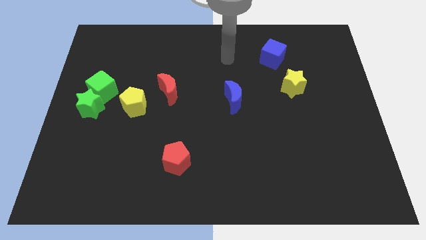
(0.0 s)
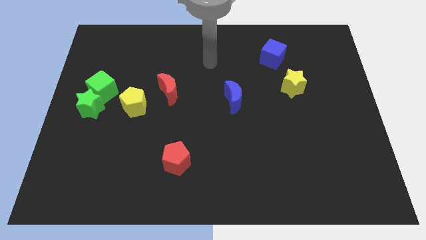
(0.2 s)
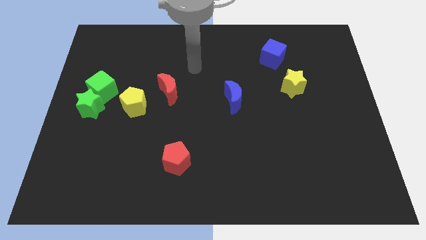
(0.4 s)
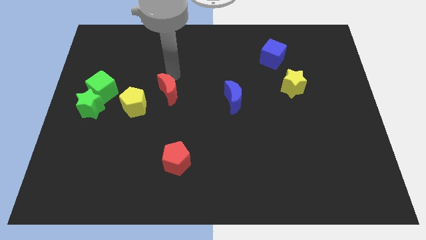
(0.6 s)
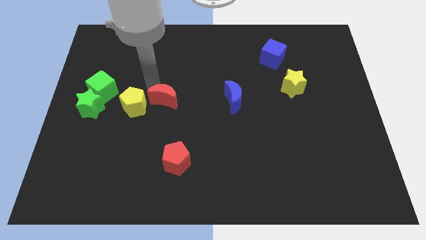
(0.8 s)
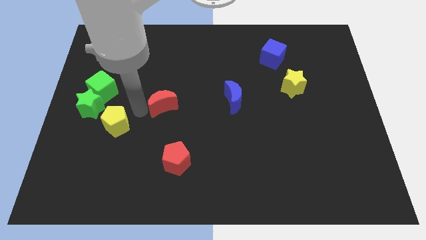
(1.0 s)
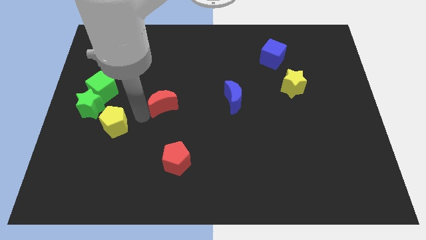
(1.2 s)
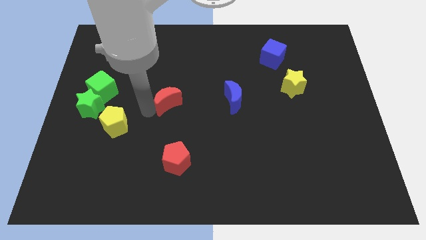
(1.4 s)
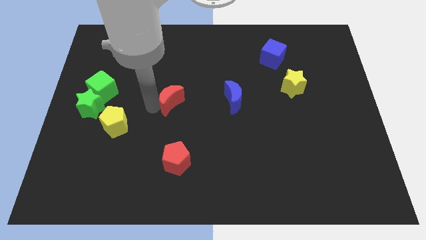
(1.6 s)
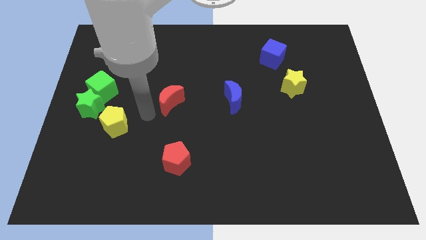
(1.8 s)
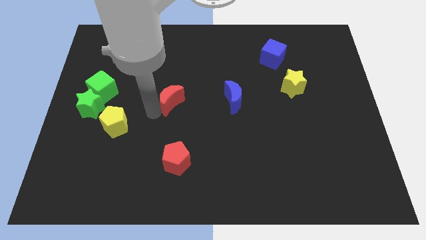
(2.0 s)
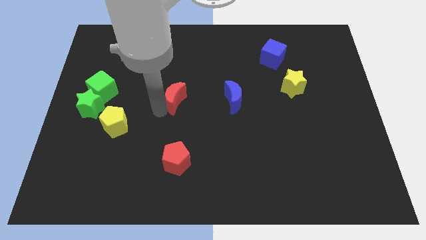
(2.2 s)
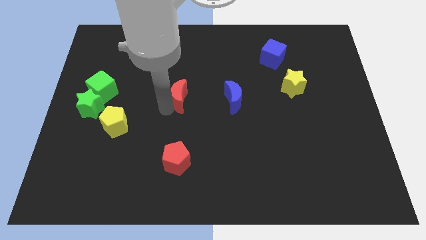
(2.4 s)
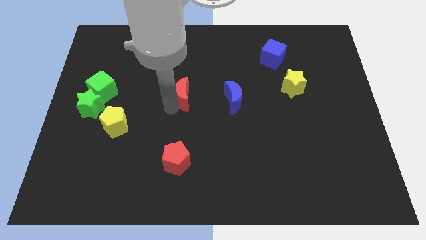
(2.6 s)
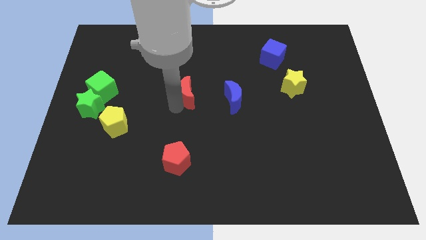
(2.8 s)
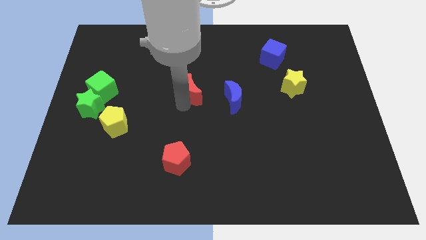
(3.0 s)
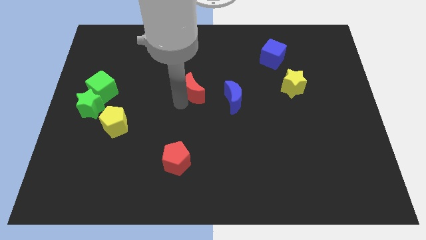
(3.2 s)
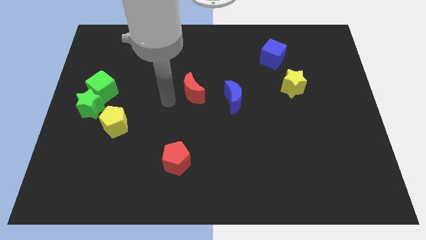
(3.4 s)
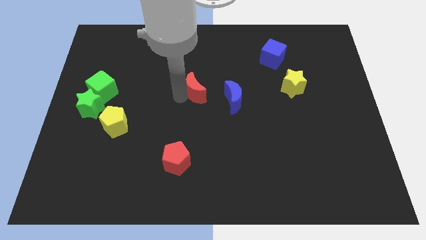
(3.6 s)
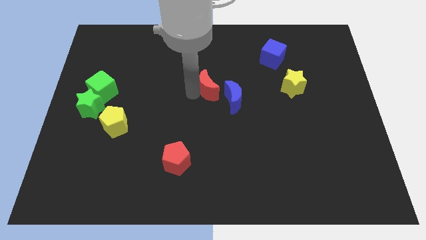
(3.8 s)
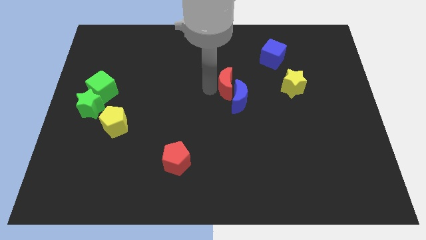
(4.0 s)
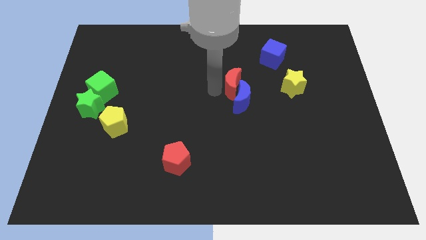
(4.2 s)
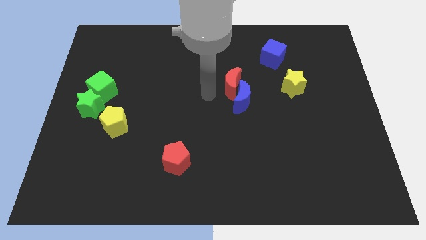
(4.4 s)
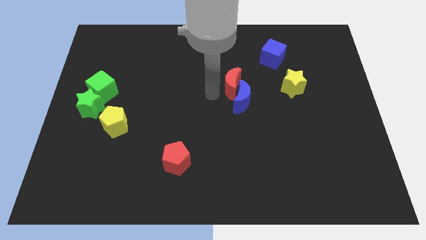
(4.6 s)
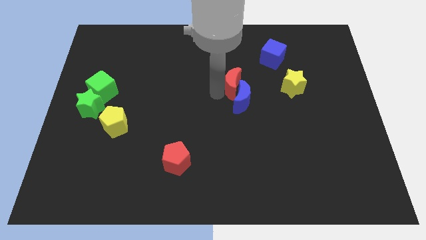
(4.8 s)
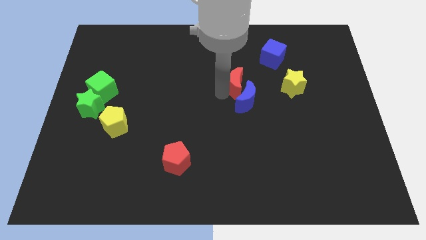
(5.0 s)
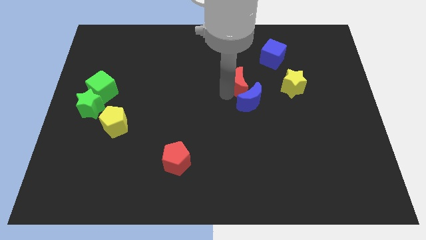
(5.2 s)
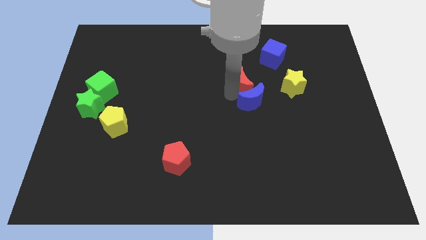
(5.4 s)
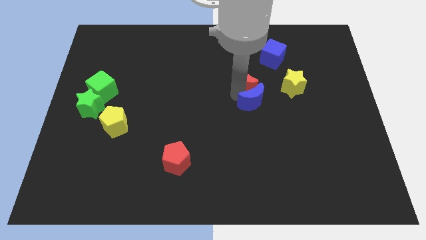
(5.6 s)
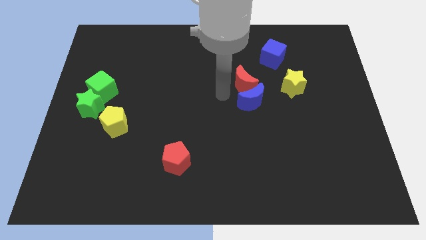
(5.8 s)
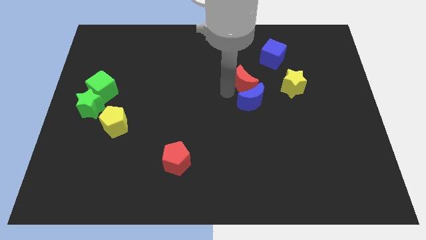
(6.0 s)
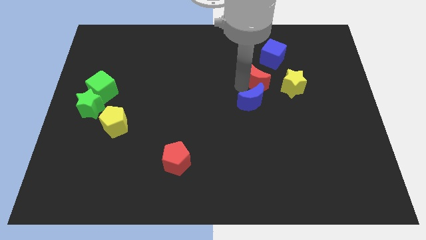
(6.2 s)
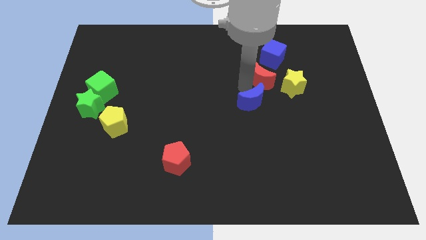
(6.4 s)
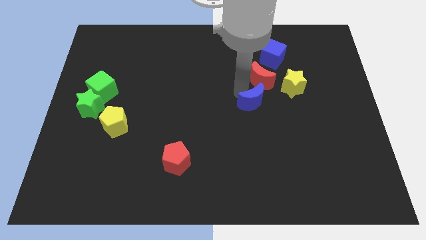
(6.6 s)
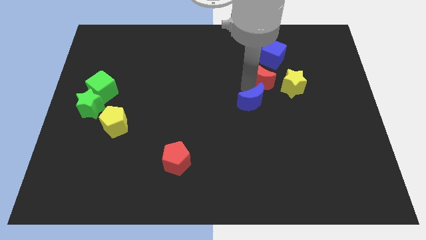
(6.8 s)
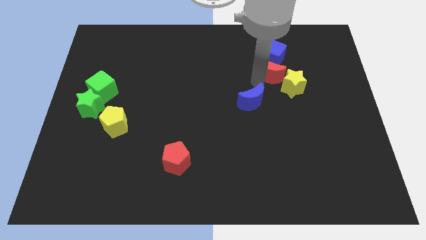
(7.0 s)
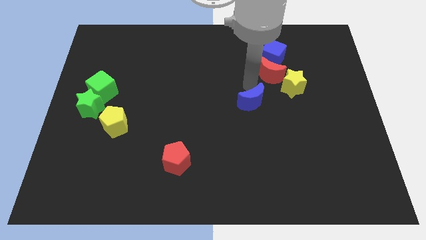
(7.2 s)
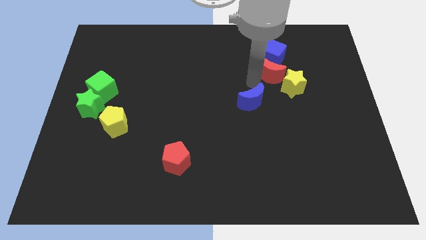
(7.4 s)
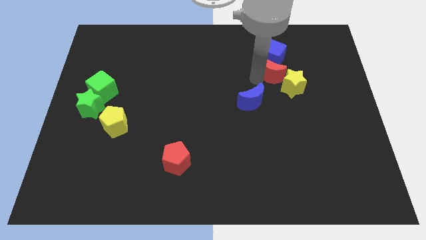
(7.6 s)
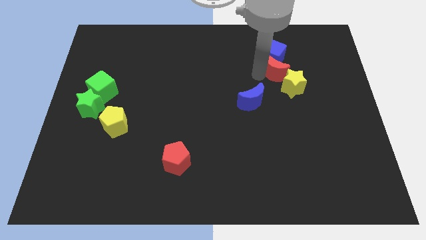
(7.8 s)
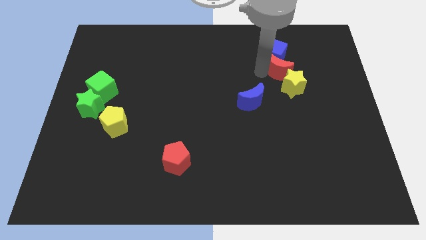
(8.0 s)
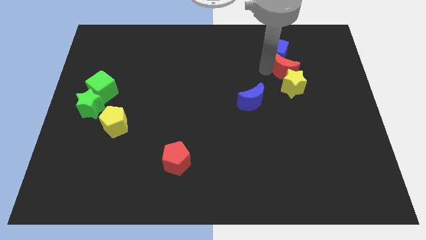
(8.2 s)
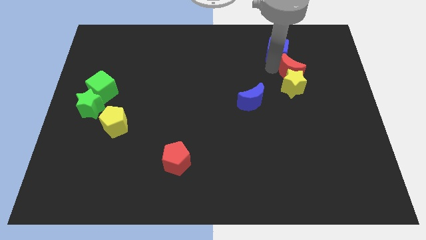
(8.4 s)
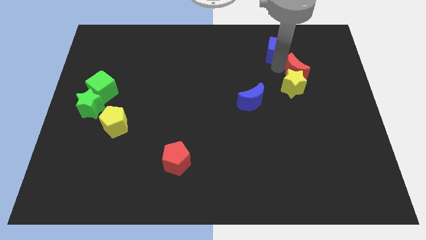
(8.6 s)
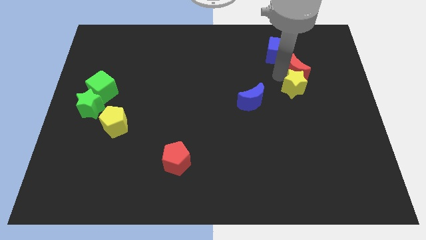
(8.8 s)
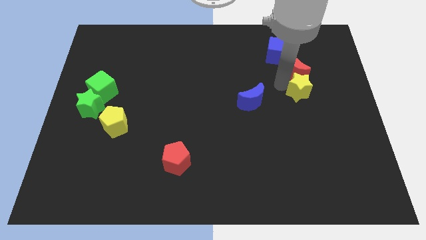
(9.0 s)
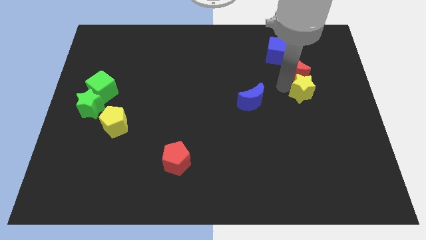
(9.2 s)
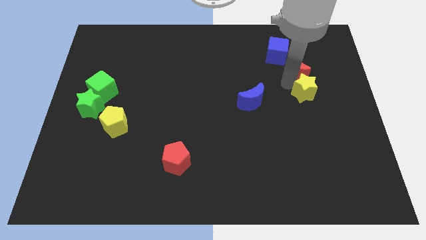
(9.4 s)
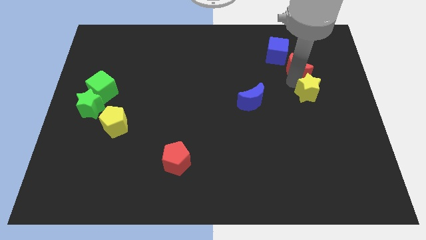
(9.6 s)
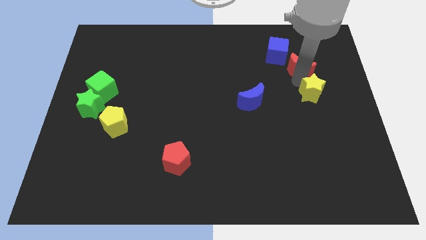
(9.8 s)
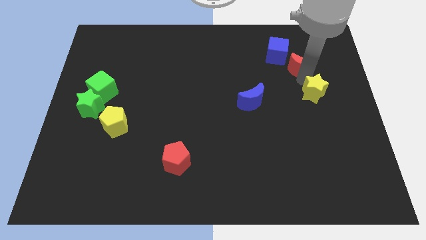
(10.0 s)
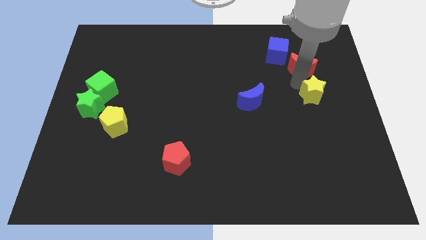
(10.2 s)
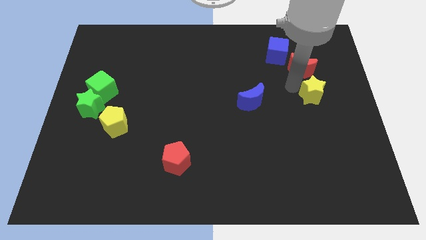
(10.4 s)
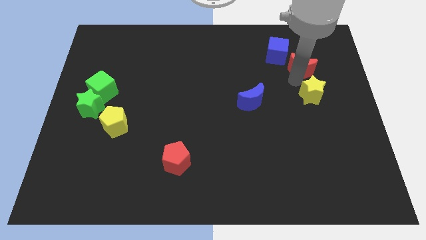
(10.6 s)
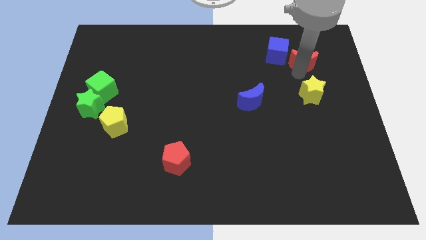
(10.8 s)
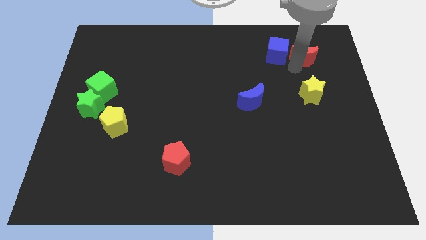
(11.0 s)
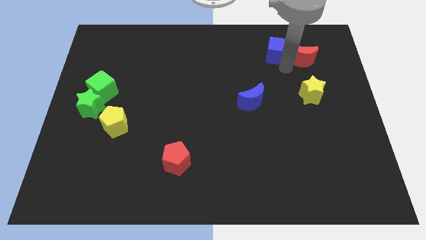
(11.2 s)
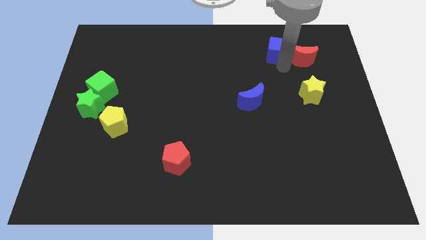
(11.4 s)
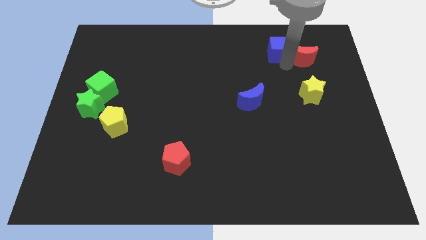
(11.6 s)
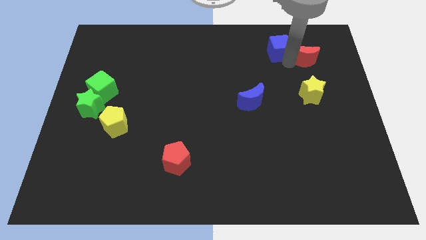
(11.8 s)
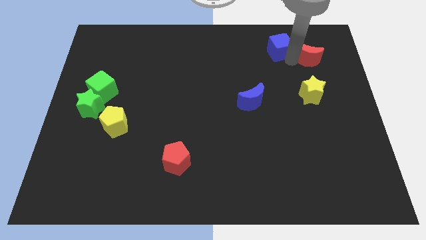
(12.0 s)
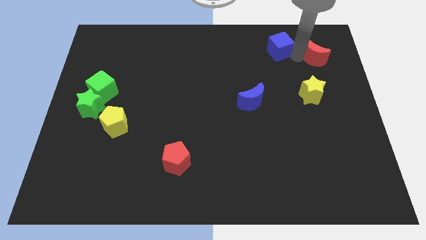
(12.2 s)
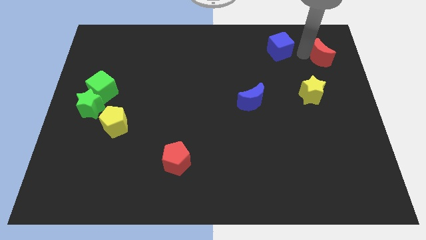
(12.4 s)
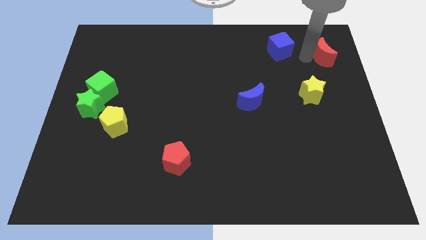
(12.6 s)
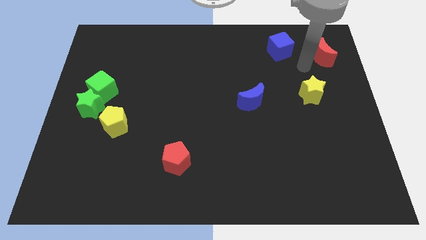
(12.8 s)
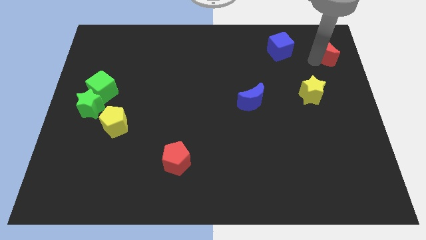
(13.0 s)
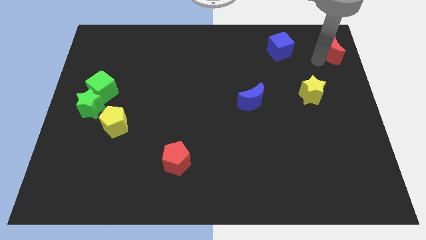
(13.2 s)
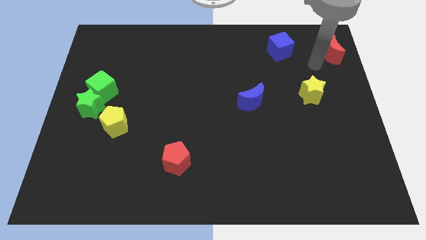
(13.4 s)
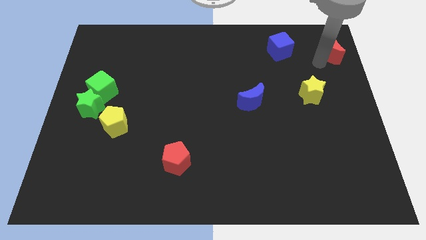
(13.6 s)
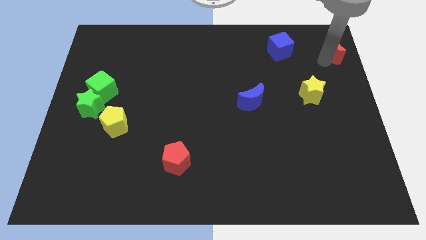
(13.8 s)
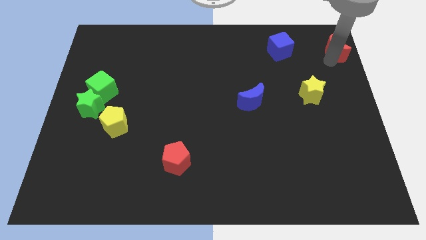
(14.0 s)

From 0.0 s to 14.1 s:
move the red moon to the top right of the board
